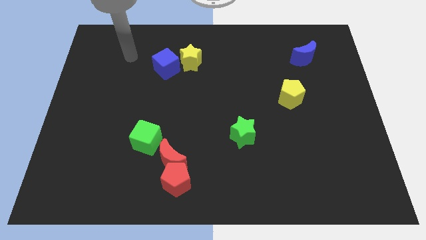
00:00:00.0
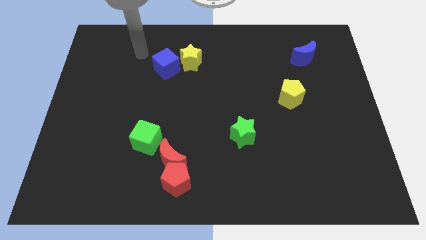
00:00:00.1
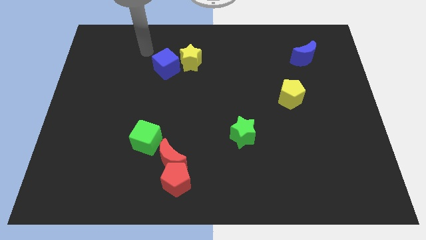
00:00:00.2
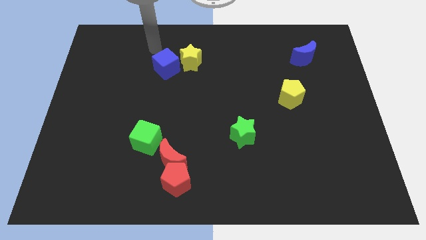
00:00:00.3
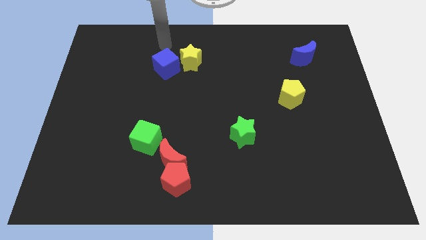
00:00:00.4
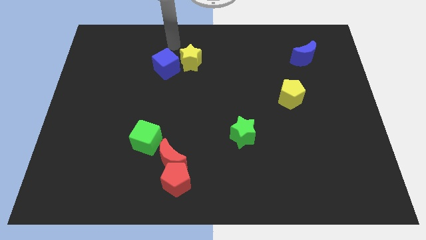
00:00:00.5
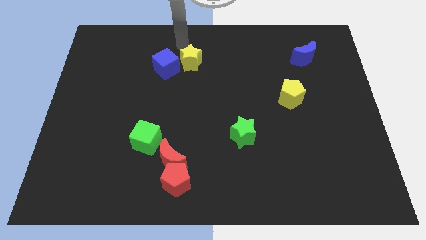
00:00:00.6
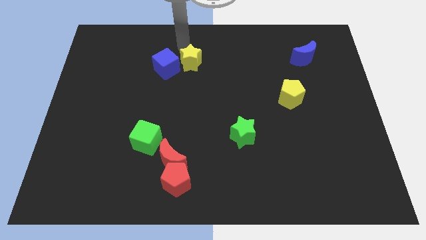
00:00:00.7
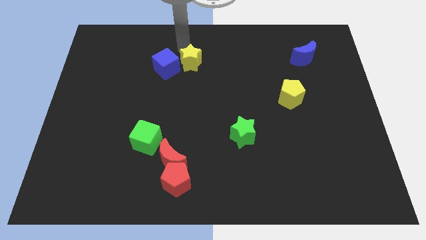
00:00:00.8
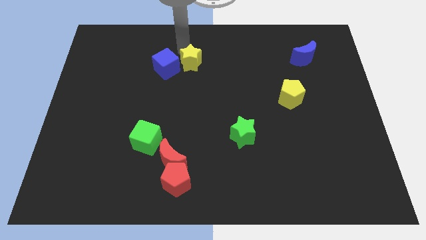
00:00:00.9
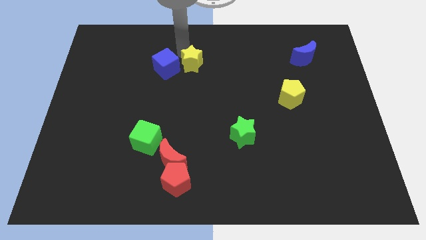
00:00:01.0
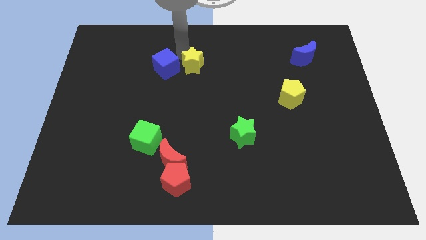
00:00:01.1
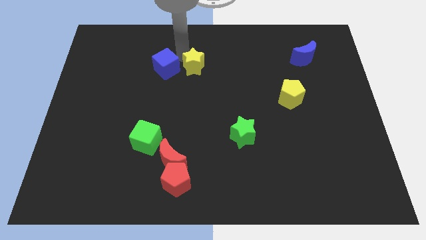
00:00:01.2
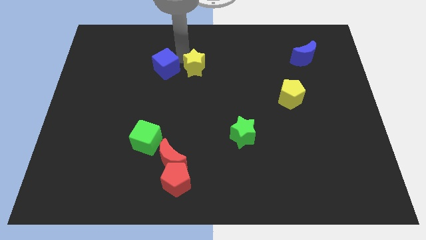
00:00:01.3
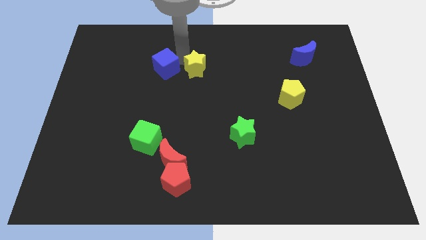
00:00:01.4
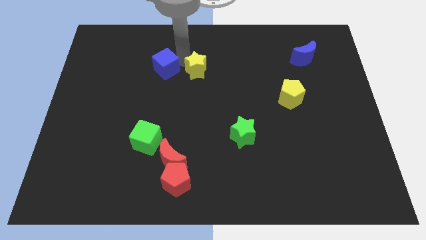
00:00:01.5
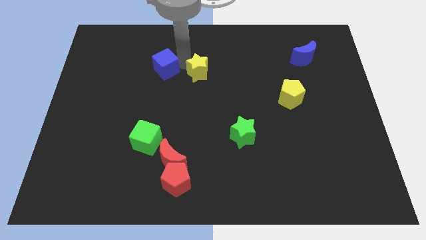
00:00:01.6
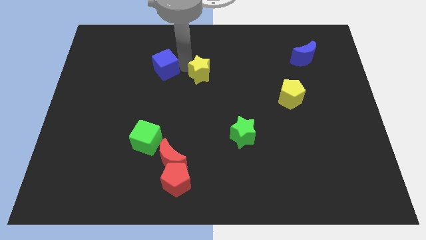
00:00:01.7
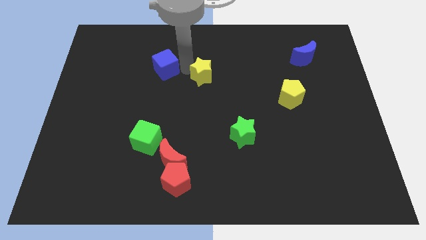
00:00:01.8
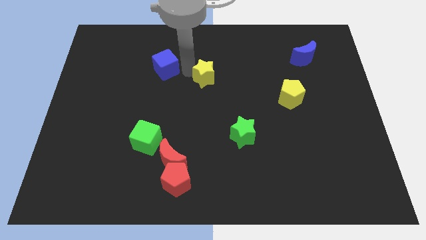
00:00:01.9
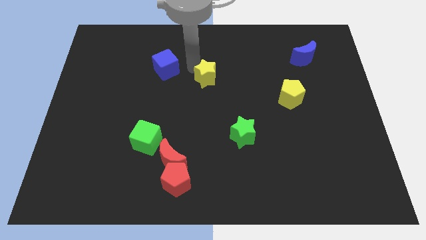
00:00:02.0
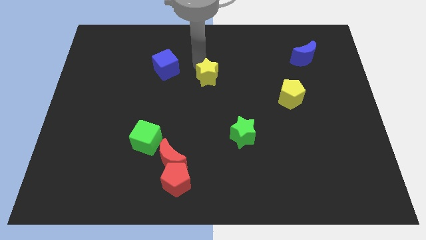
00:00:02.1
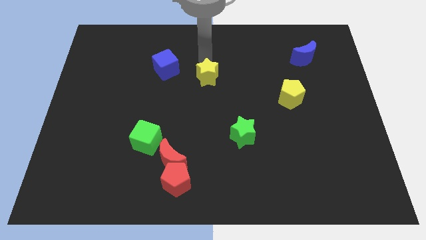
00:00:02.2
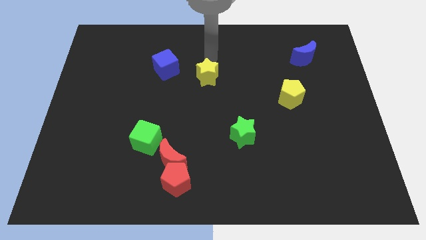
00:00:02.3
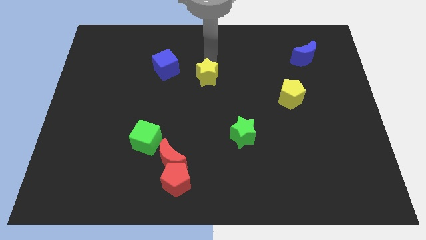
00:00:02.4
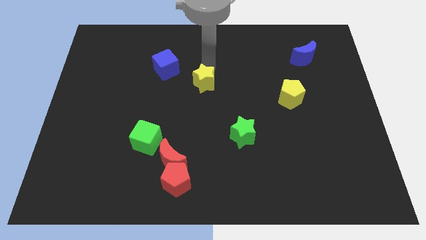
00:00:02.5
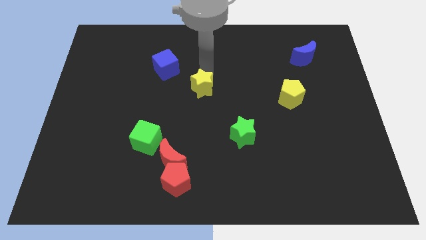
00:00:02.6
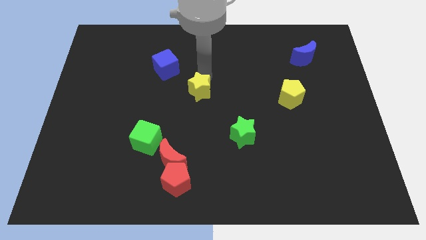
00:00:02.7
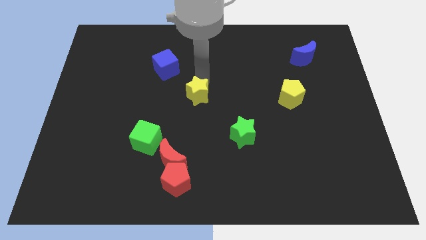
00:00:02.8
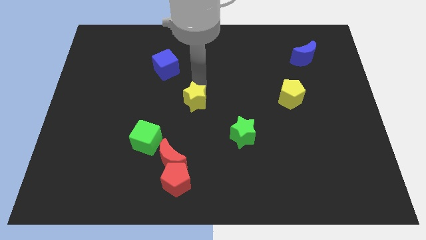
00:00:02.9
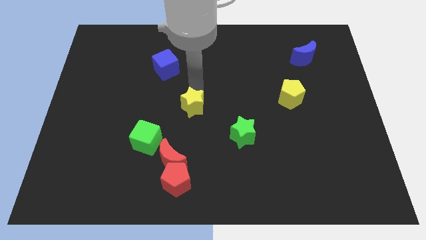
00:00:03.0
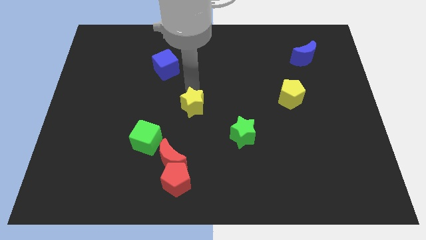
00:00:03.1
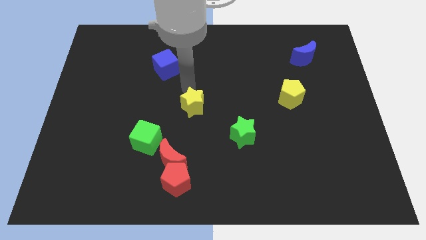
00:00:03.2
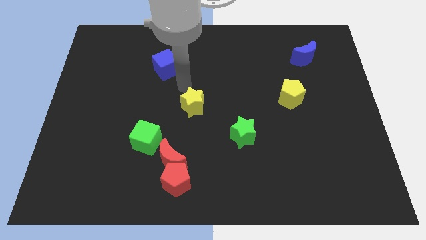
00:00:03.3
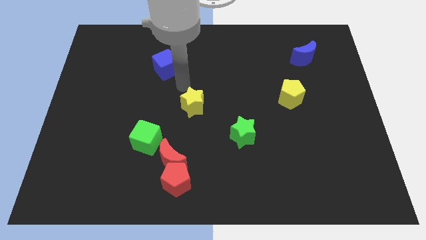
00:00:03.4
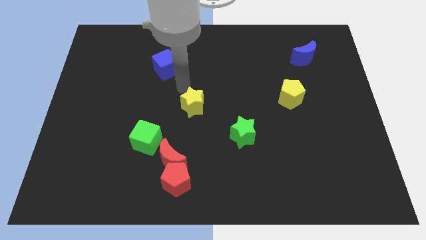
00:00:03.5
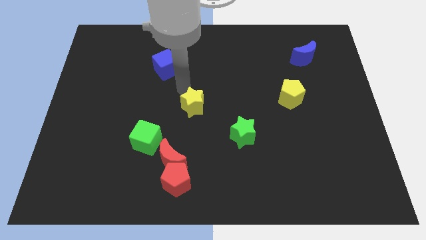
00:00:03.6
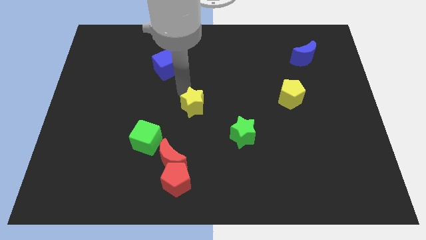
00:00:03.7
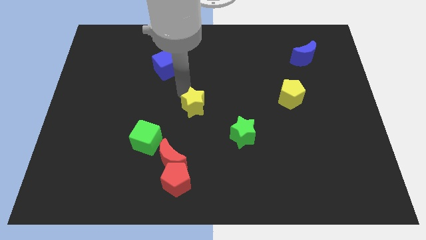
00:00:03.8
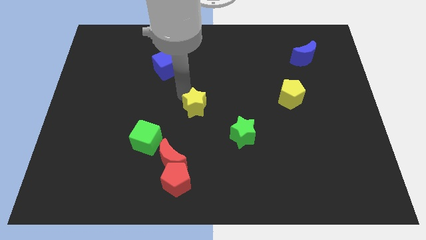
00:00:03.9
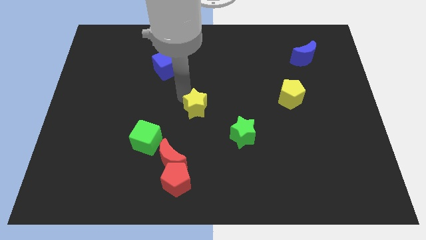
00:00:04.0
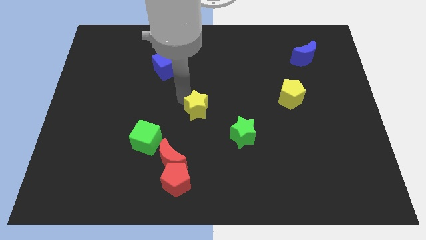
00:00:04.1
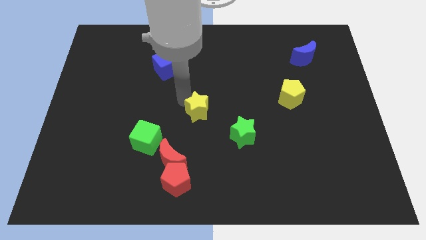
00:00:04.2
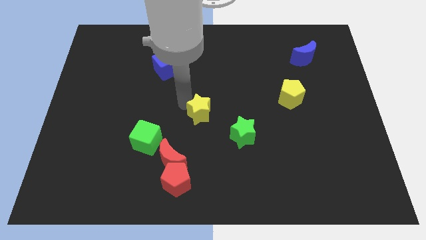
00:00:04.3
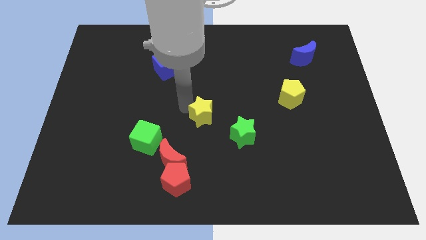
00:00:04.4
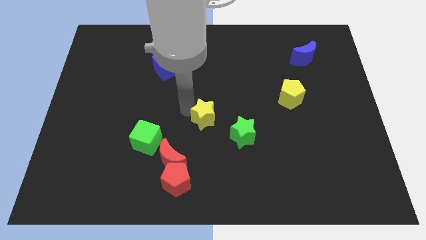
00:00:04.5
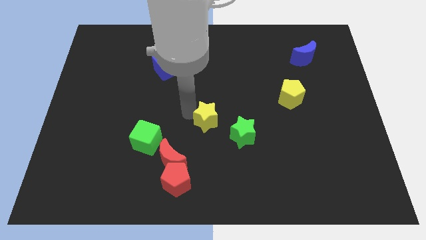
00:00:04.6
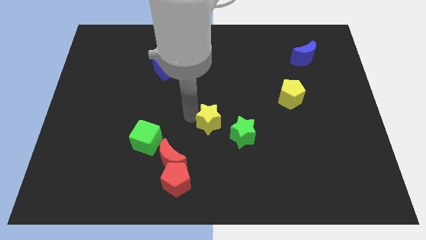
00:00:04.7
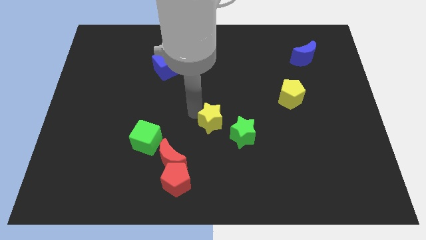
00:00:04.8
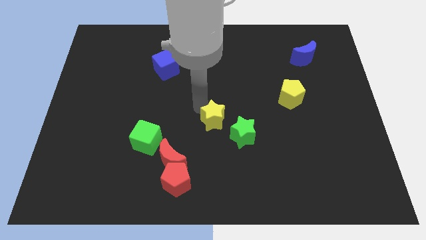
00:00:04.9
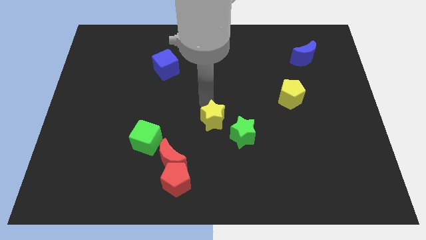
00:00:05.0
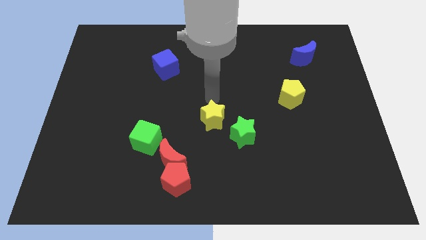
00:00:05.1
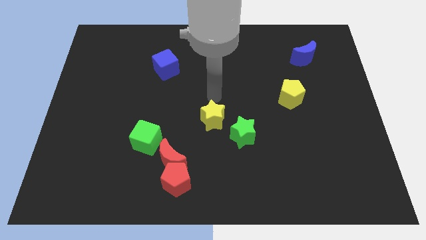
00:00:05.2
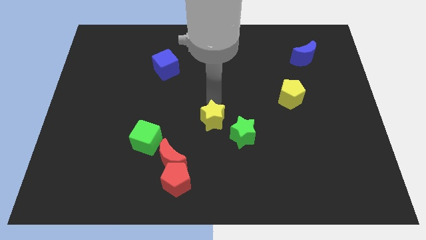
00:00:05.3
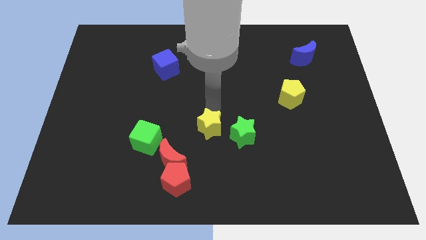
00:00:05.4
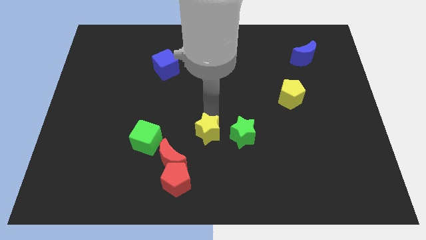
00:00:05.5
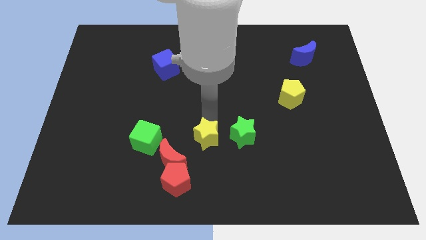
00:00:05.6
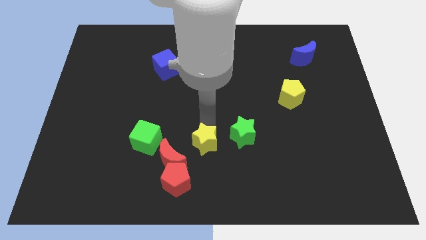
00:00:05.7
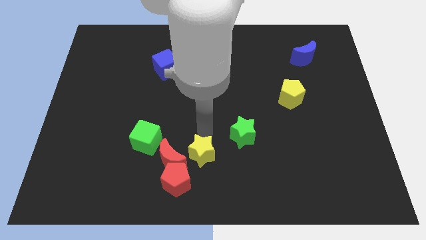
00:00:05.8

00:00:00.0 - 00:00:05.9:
push the yellow star to the bottom side
